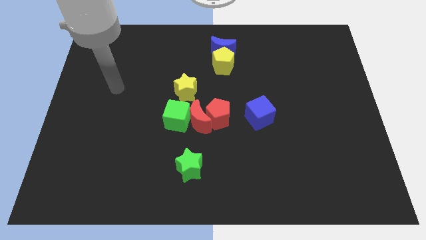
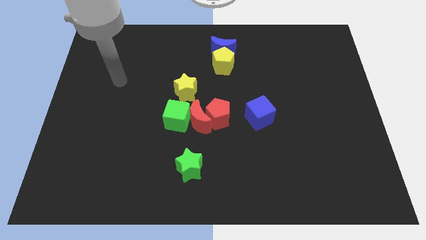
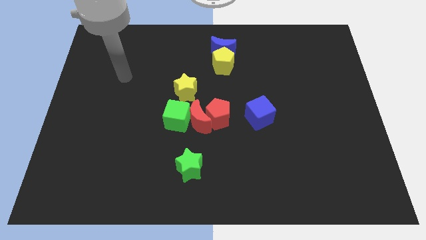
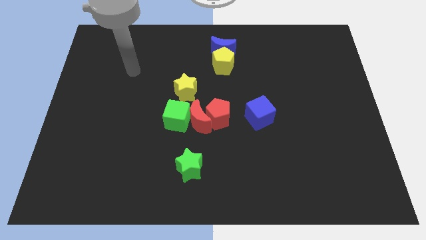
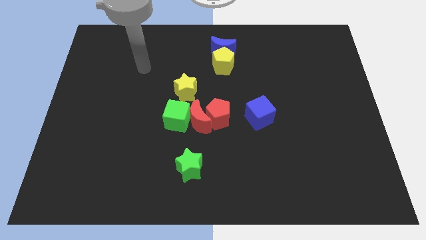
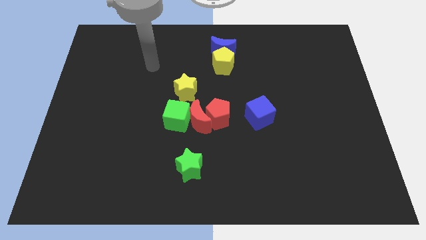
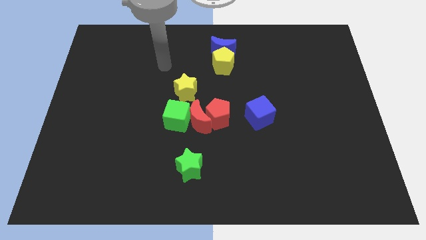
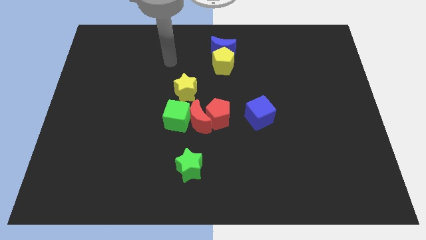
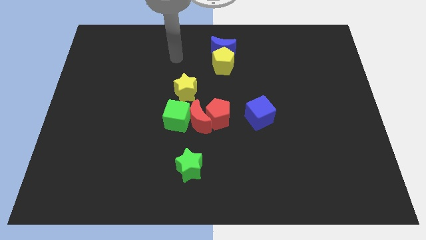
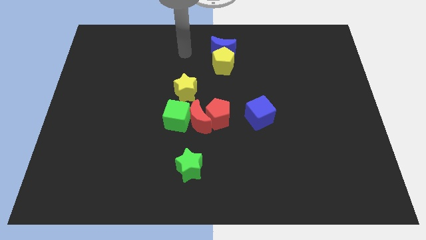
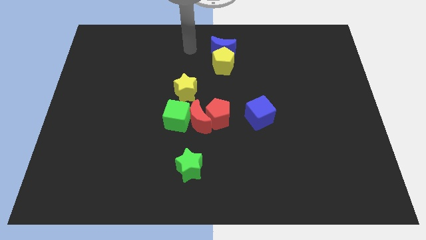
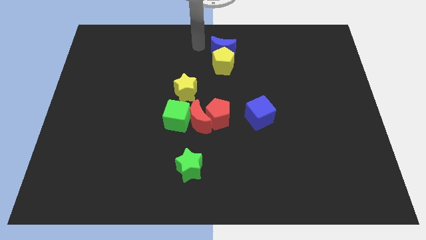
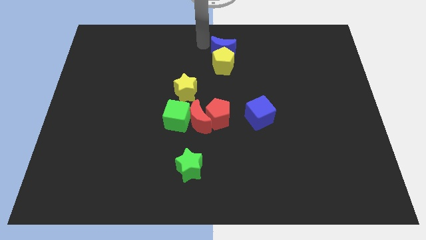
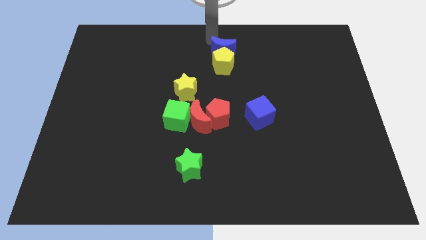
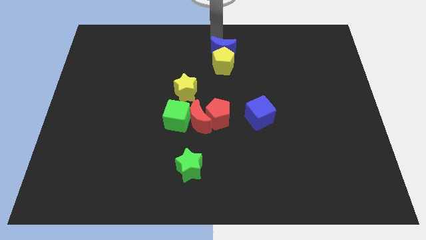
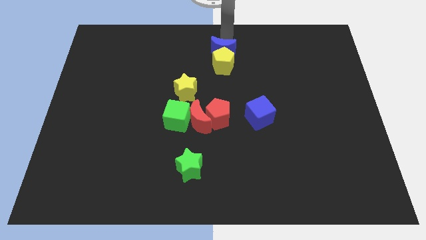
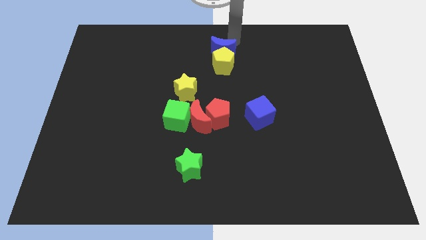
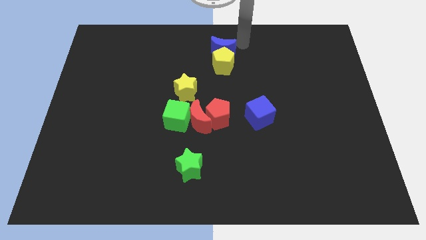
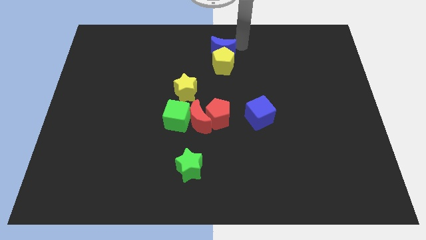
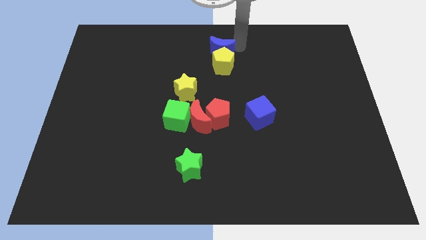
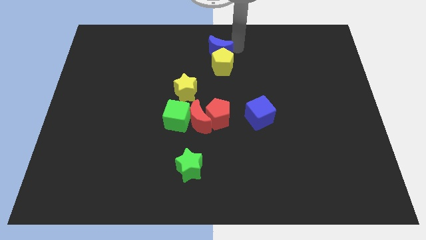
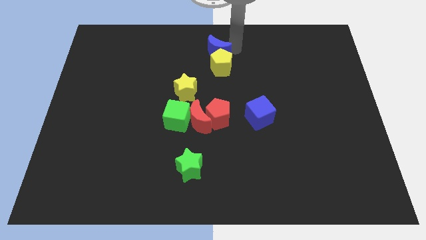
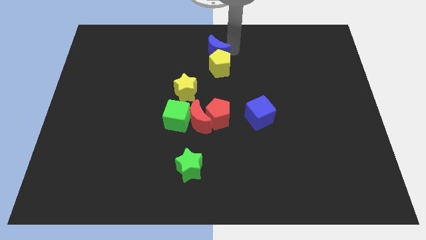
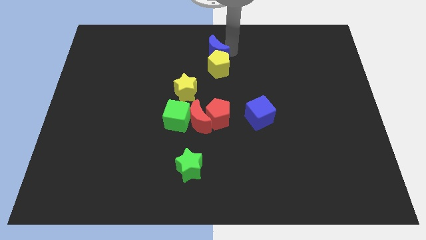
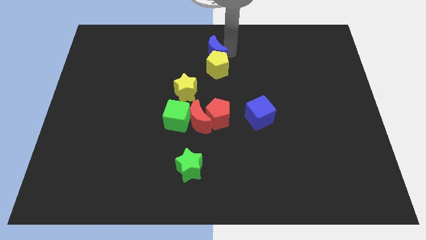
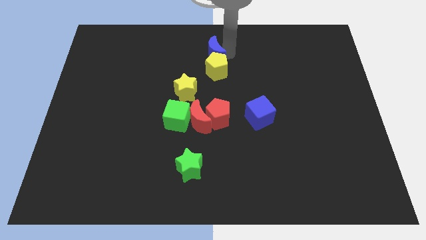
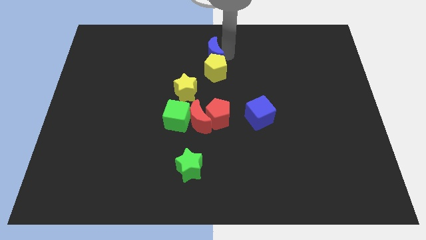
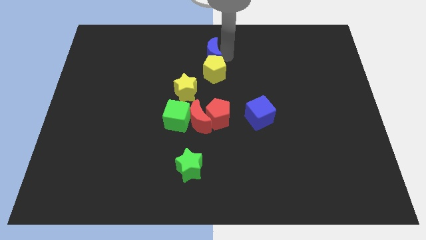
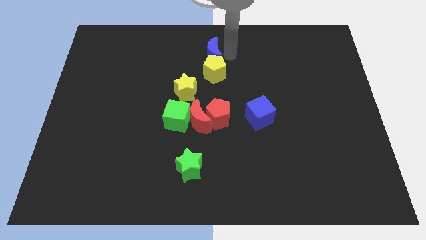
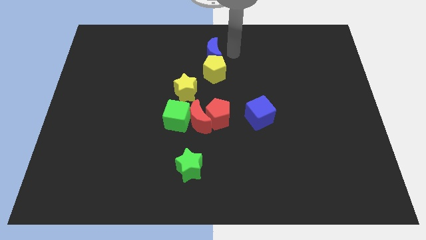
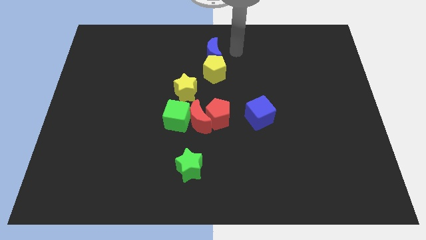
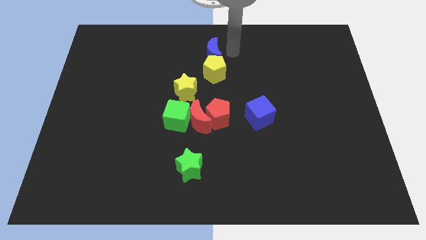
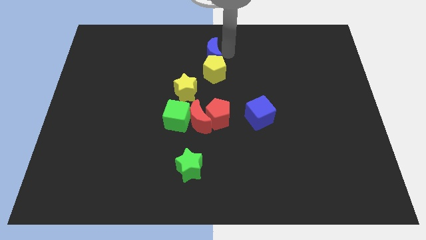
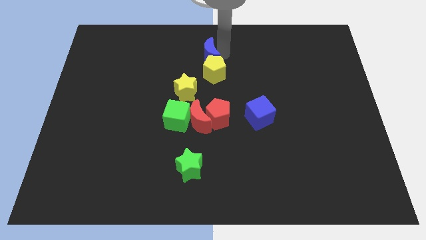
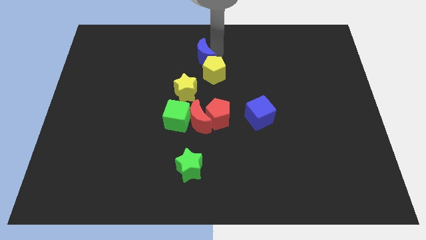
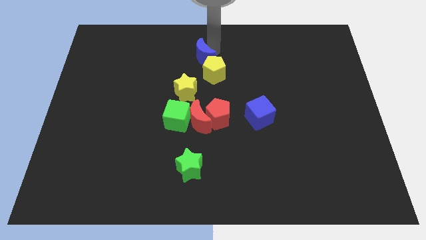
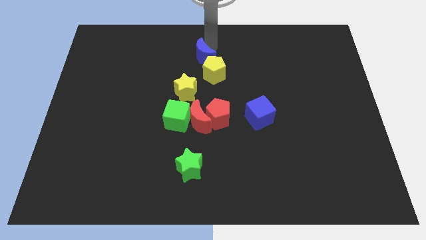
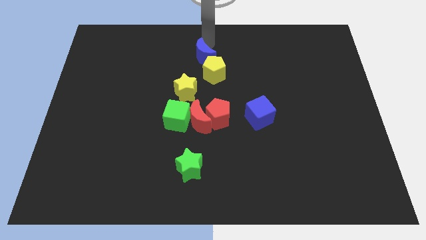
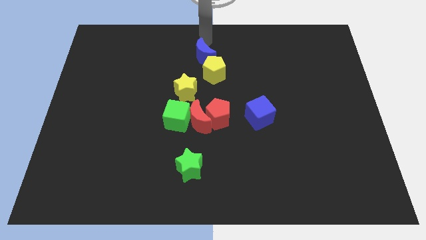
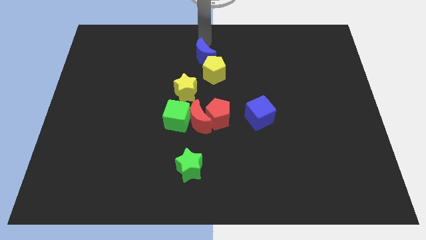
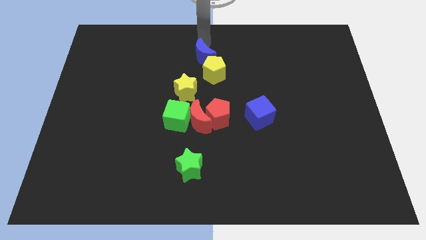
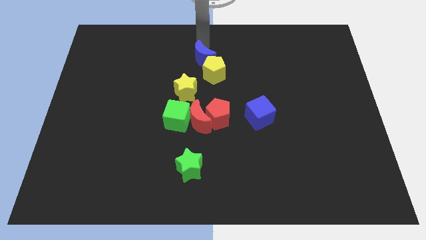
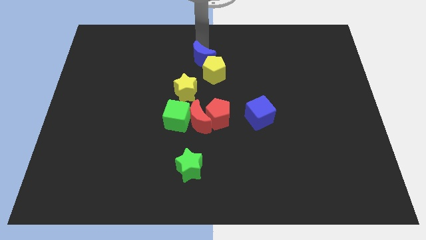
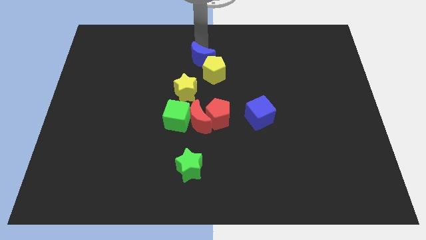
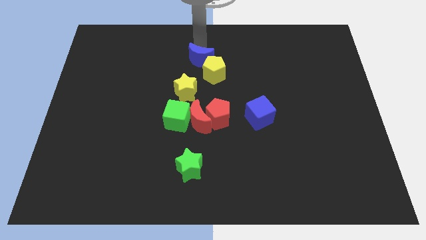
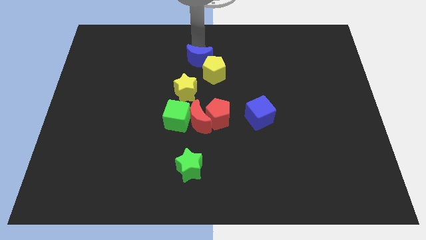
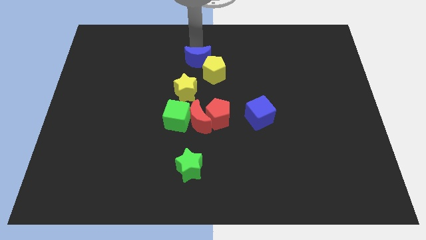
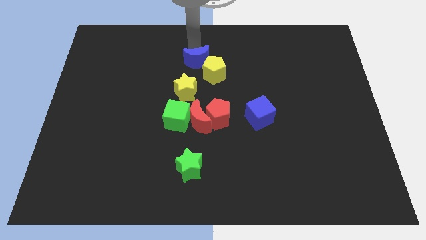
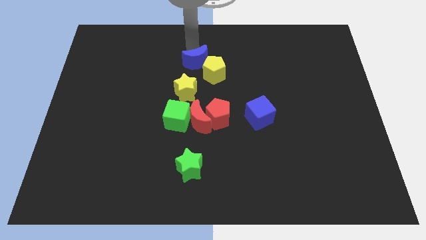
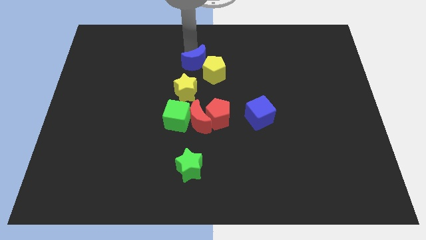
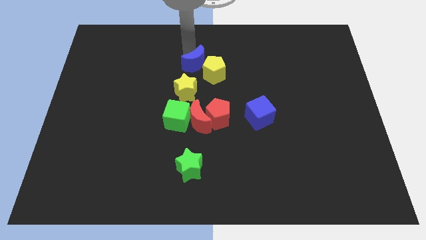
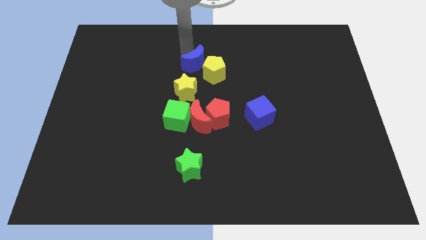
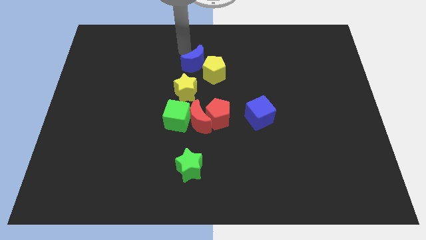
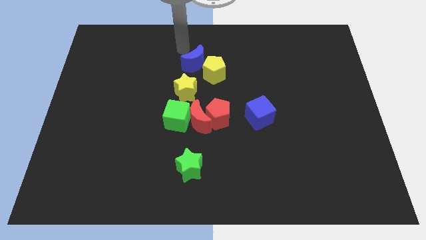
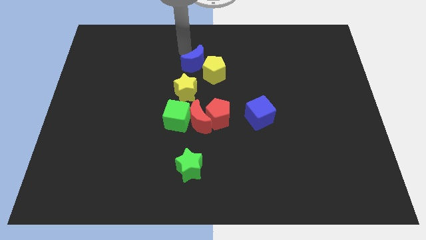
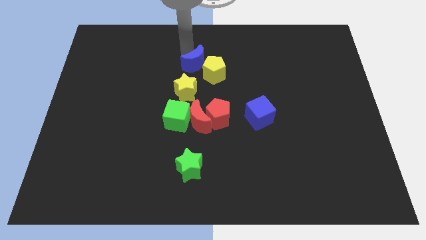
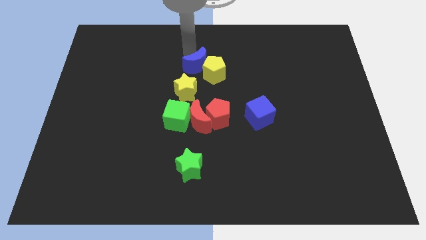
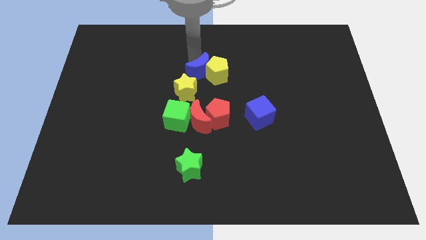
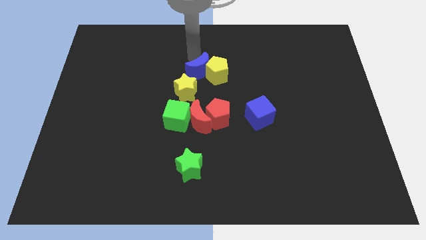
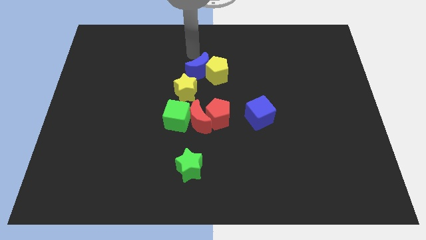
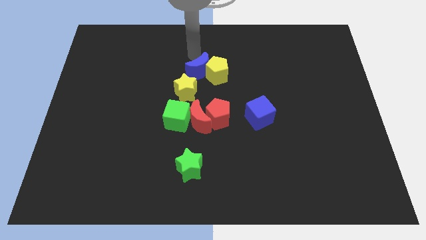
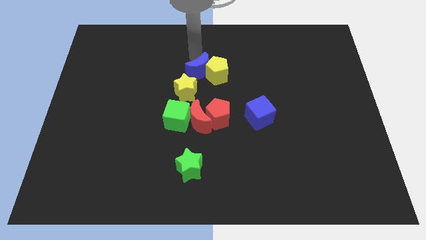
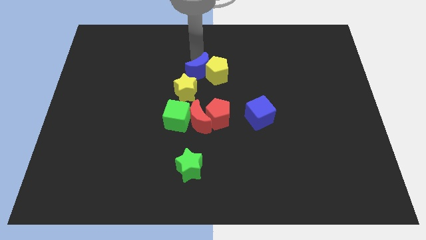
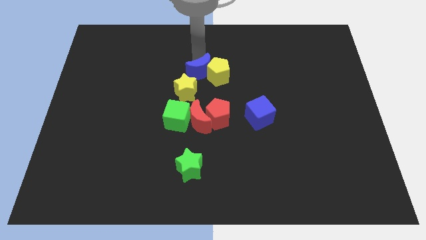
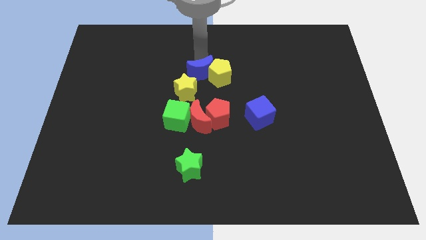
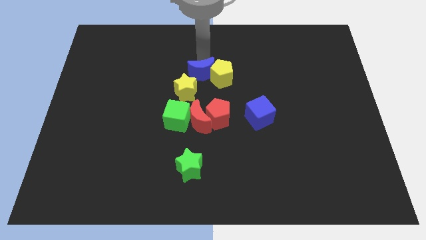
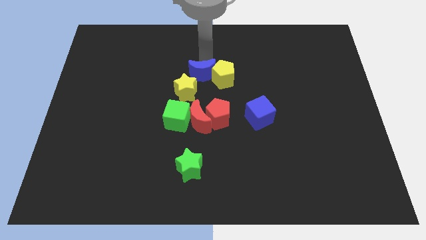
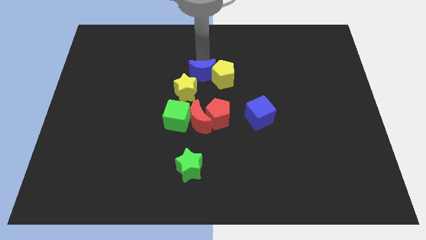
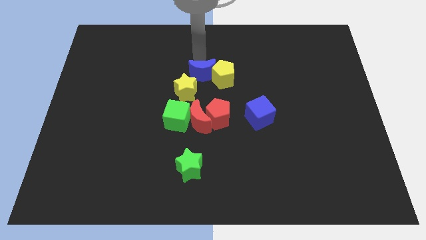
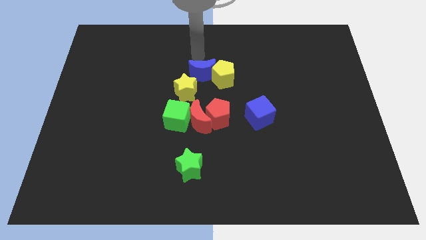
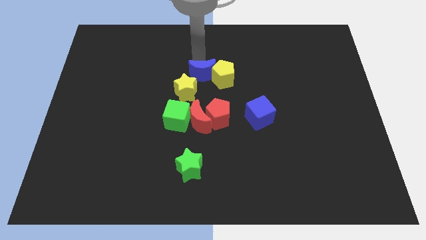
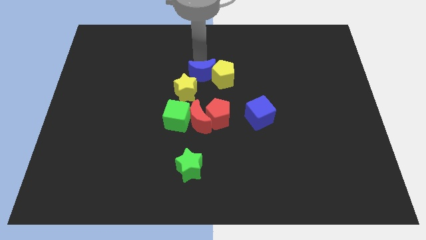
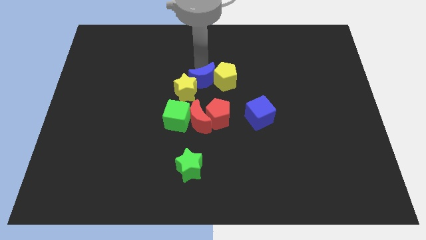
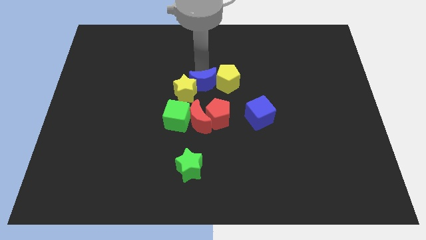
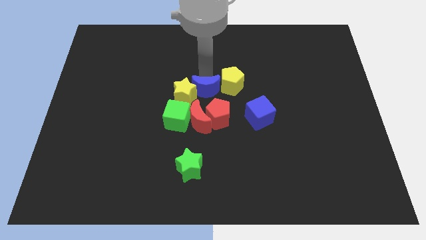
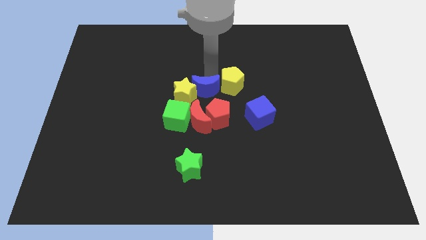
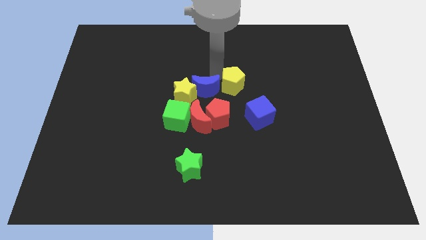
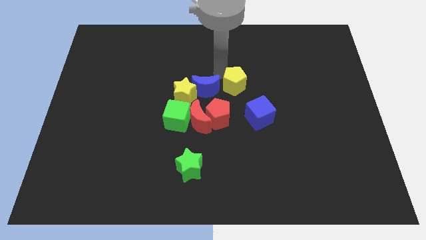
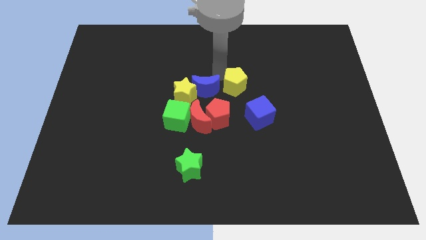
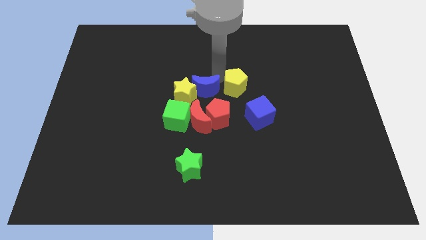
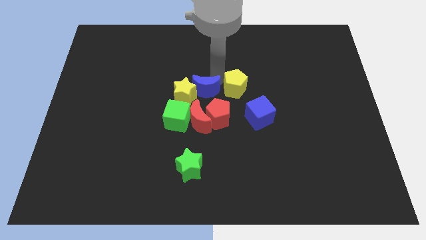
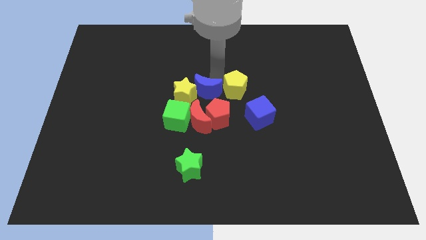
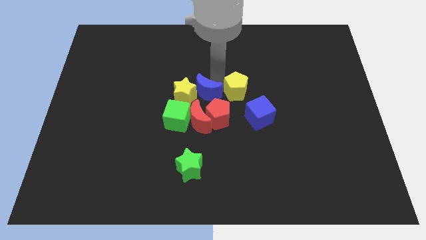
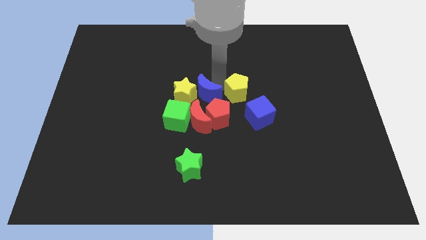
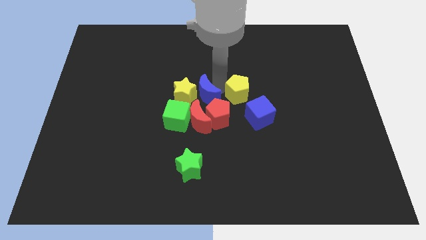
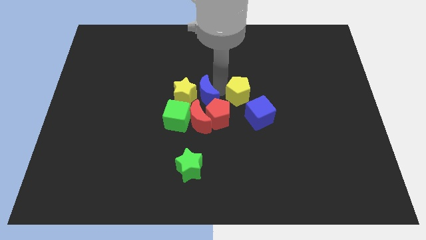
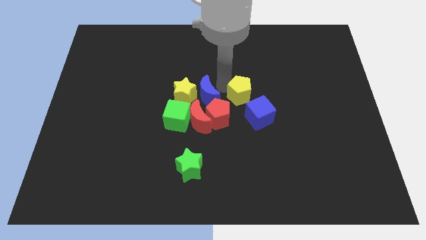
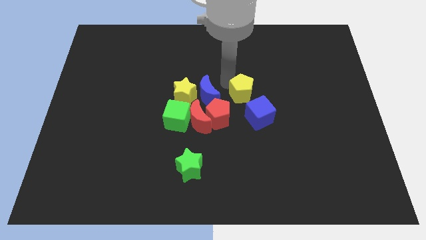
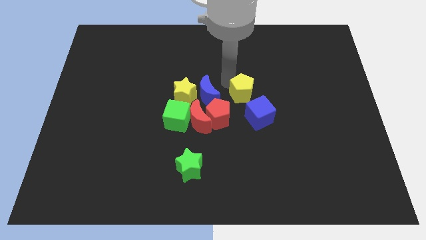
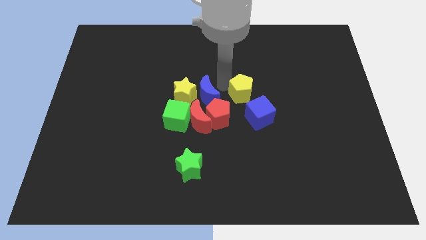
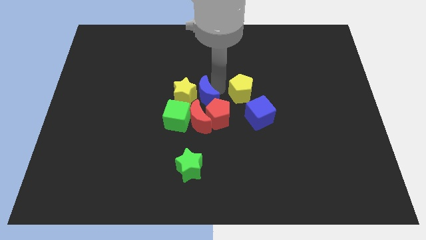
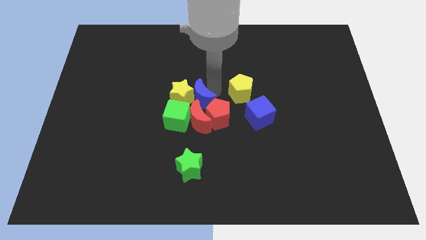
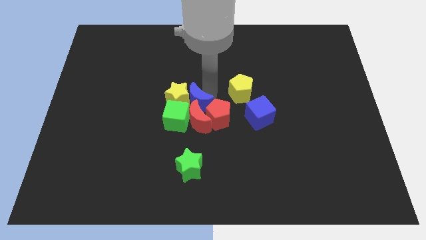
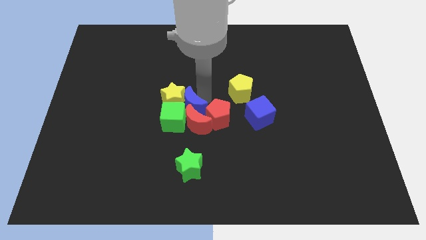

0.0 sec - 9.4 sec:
put the blue moon towards the green cube
